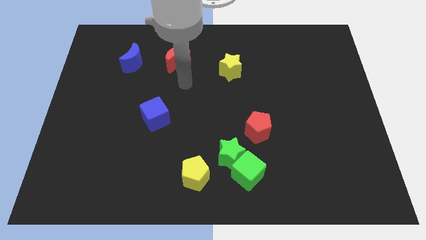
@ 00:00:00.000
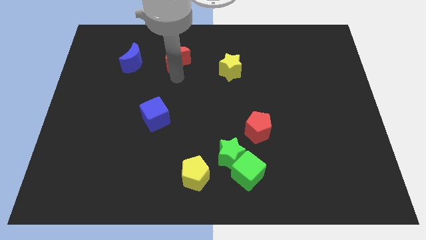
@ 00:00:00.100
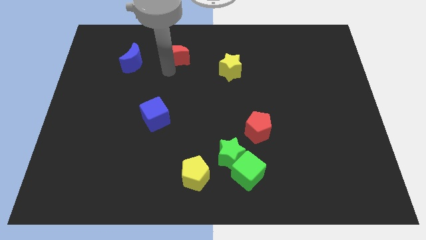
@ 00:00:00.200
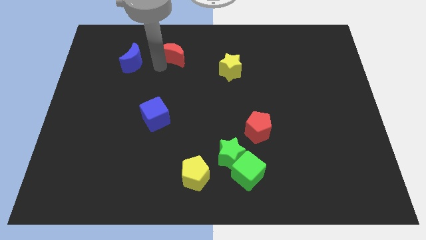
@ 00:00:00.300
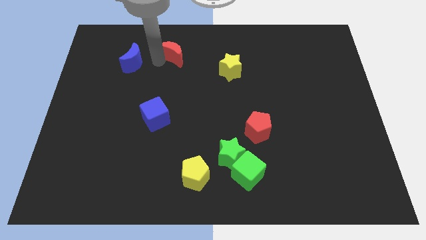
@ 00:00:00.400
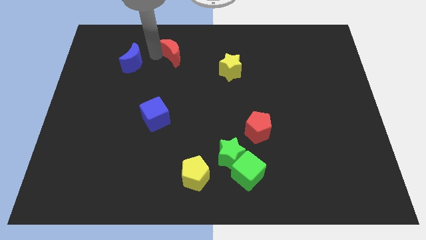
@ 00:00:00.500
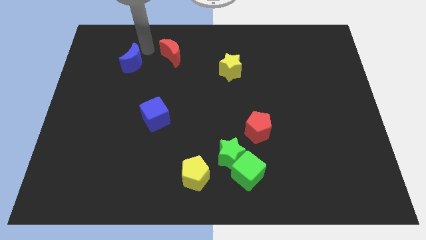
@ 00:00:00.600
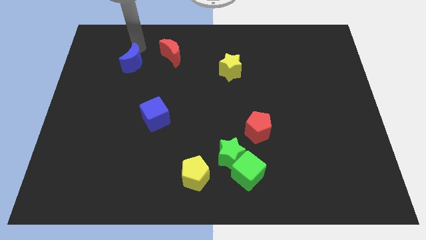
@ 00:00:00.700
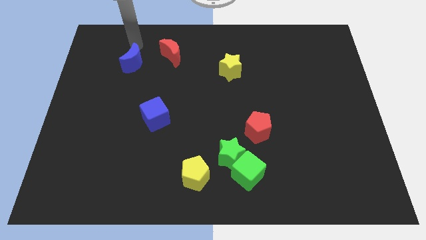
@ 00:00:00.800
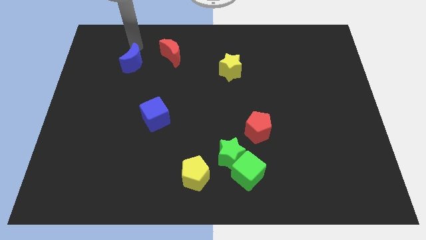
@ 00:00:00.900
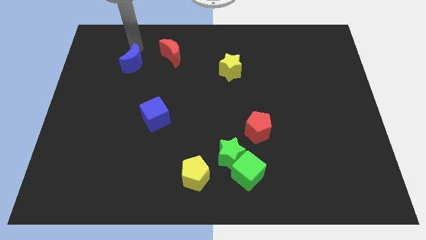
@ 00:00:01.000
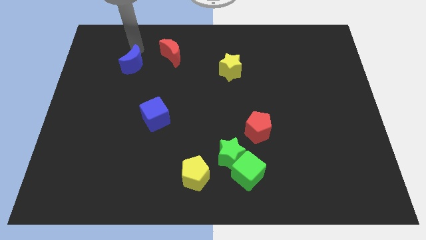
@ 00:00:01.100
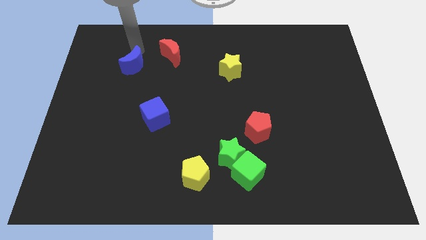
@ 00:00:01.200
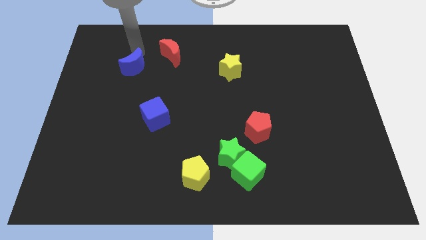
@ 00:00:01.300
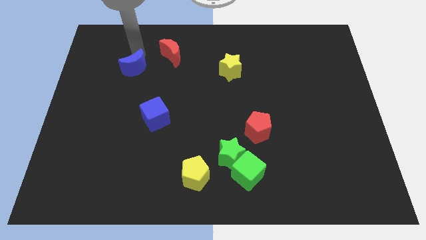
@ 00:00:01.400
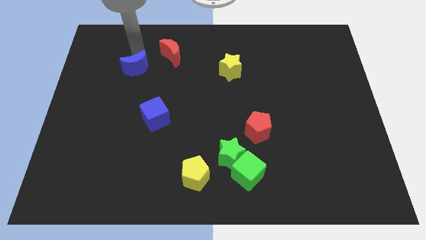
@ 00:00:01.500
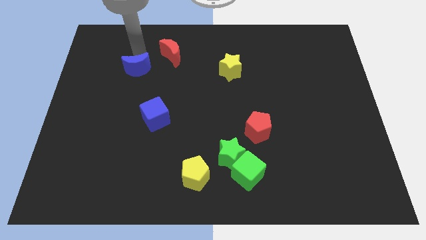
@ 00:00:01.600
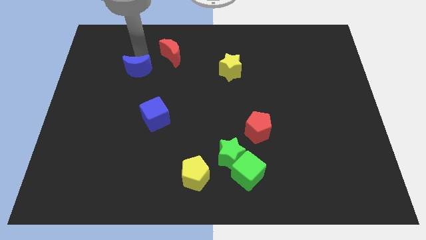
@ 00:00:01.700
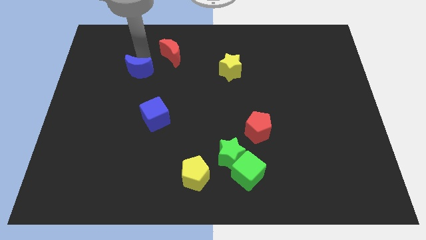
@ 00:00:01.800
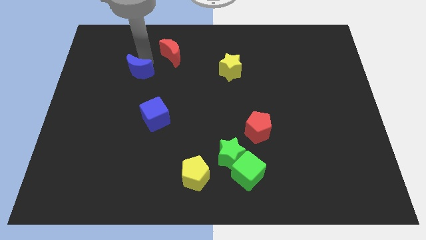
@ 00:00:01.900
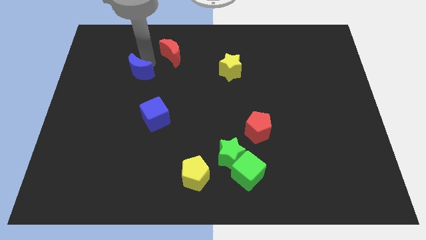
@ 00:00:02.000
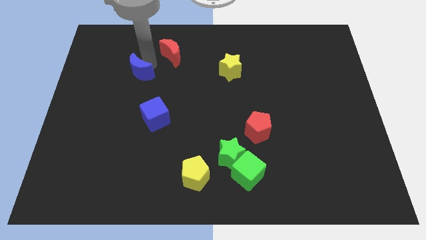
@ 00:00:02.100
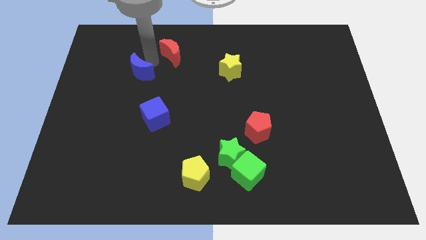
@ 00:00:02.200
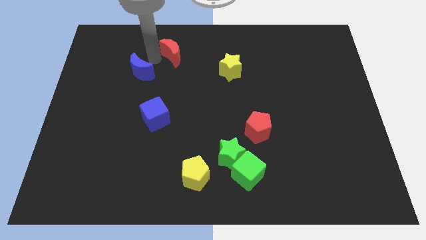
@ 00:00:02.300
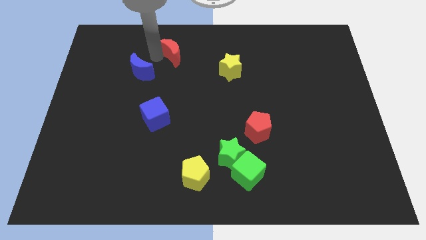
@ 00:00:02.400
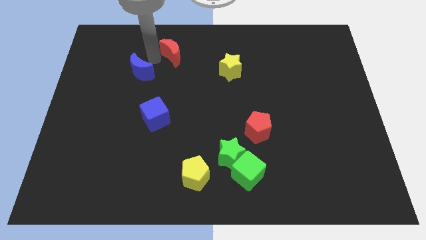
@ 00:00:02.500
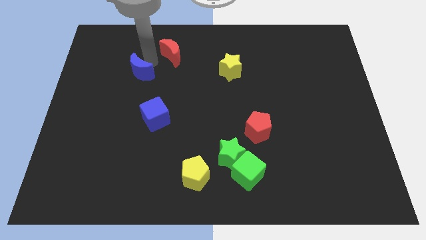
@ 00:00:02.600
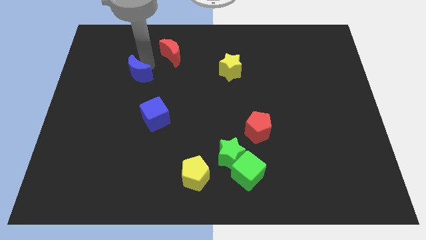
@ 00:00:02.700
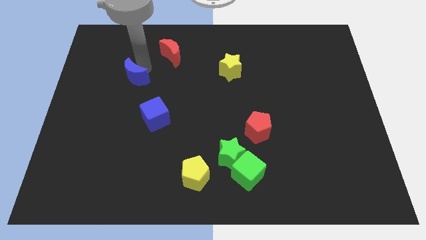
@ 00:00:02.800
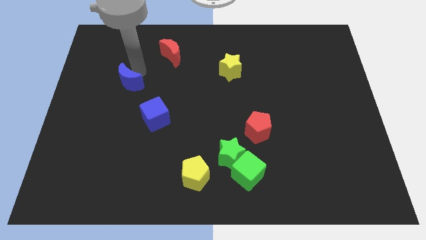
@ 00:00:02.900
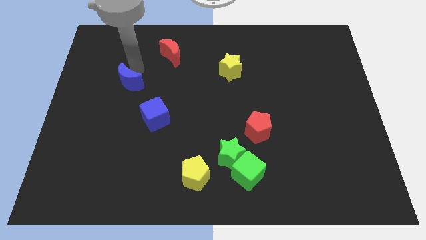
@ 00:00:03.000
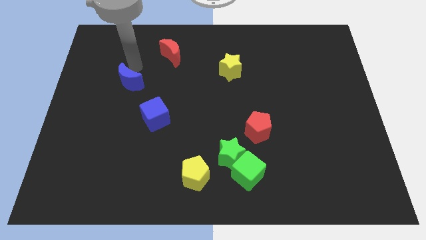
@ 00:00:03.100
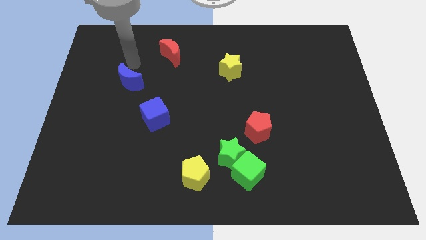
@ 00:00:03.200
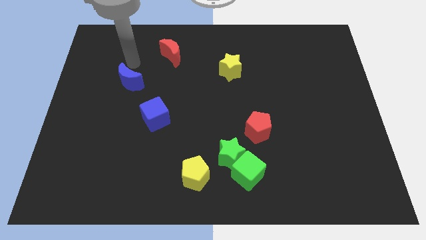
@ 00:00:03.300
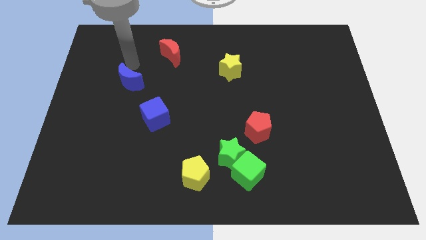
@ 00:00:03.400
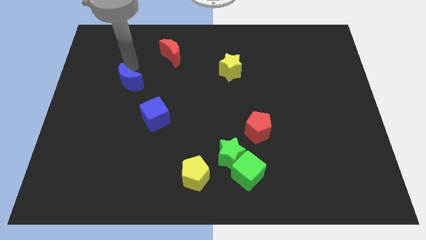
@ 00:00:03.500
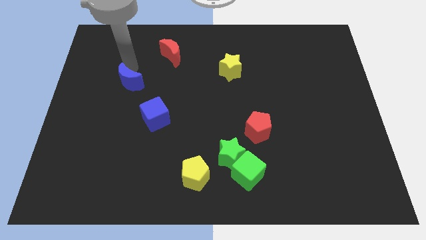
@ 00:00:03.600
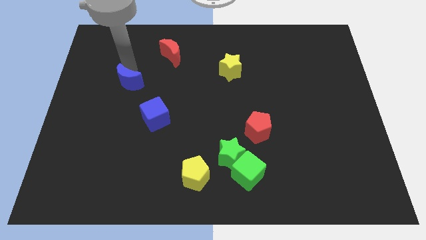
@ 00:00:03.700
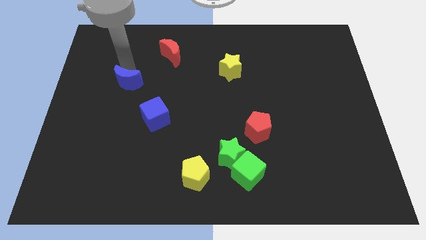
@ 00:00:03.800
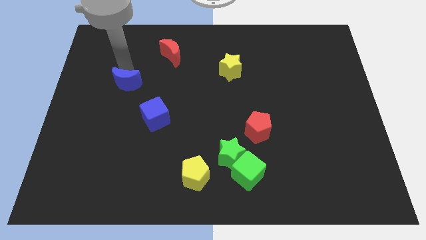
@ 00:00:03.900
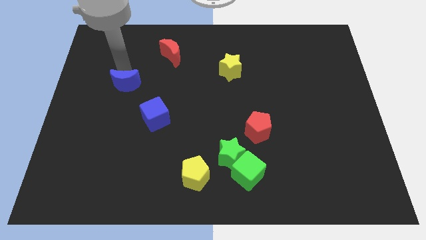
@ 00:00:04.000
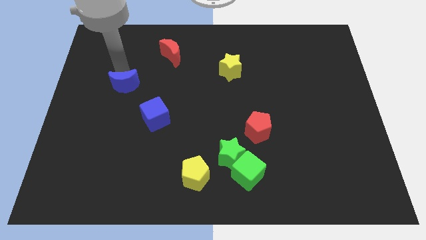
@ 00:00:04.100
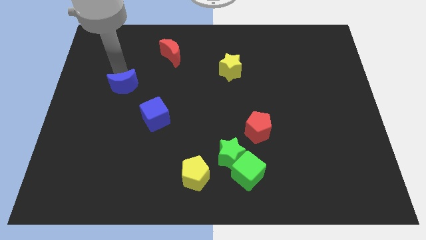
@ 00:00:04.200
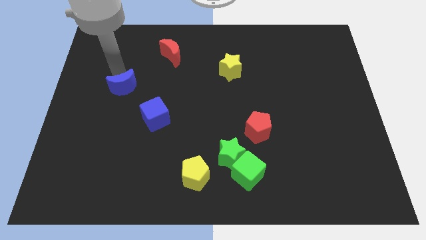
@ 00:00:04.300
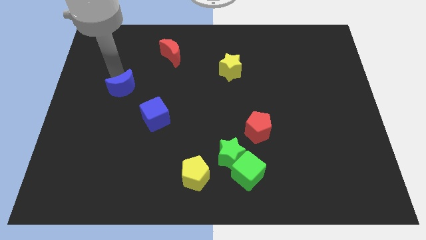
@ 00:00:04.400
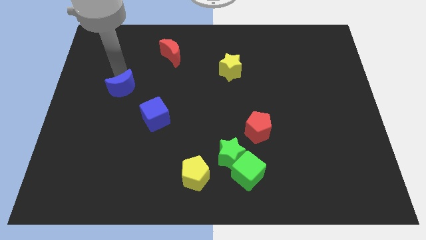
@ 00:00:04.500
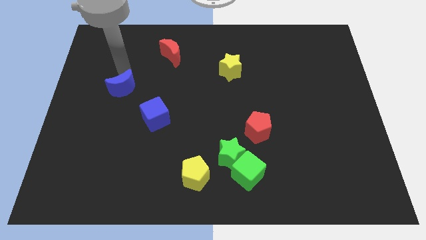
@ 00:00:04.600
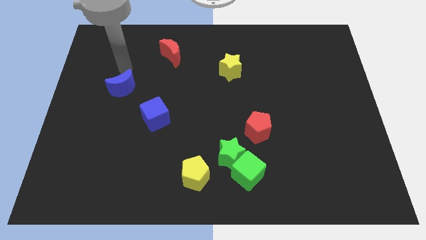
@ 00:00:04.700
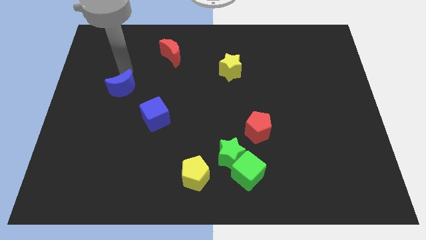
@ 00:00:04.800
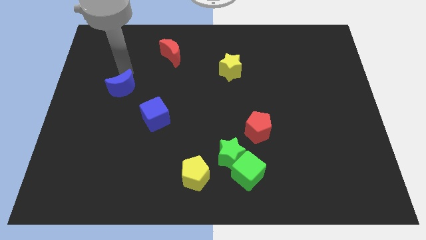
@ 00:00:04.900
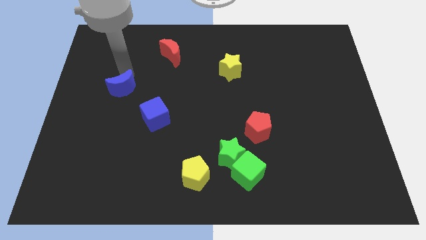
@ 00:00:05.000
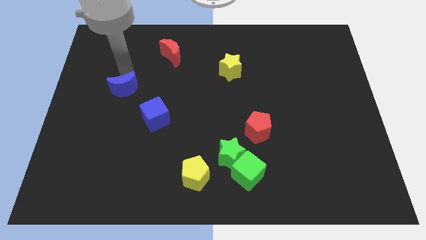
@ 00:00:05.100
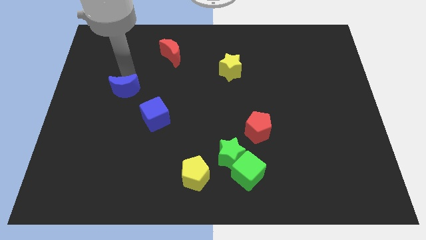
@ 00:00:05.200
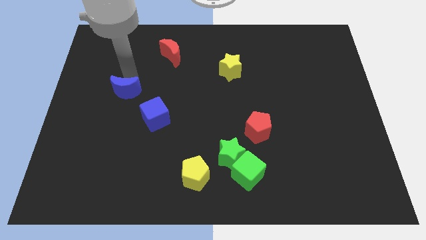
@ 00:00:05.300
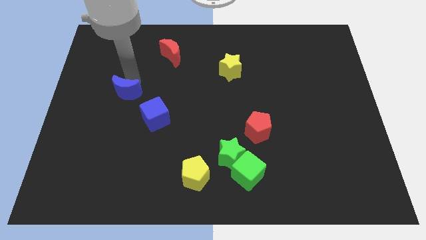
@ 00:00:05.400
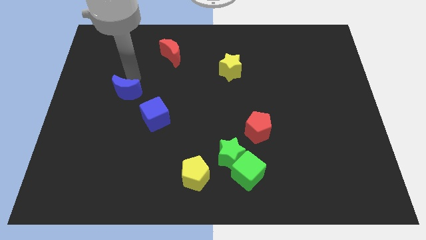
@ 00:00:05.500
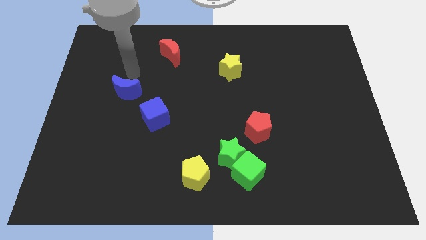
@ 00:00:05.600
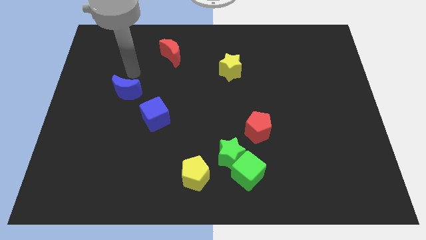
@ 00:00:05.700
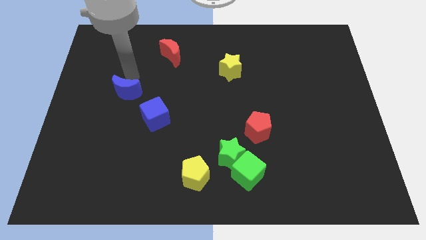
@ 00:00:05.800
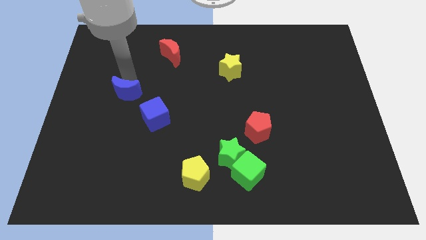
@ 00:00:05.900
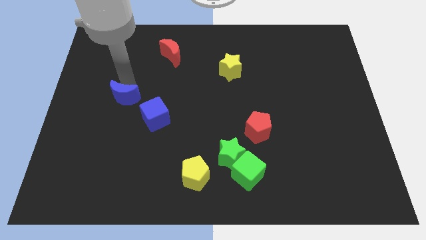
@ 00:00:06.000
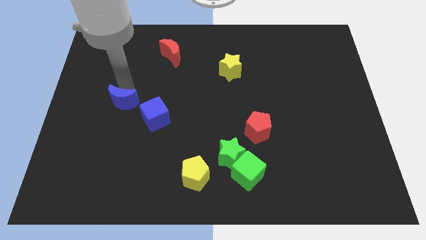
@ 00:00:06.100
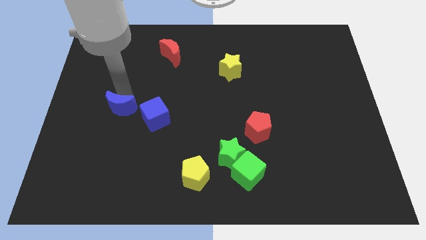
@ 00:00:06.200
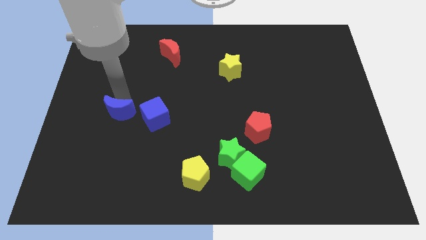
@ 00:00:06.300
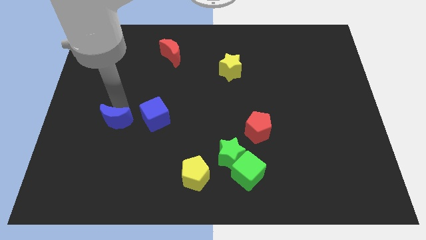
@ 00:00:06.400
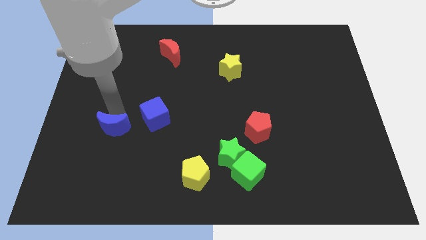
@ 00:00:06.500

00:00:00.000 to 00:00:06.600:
push the blue moon down

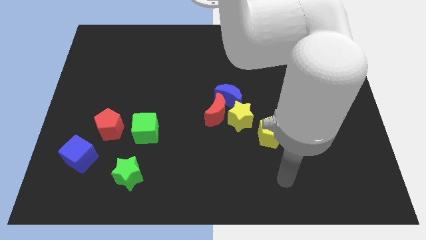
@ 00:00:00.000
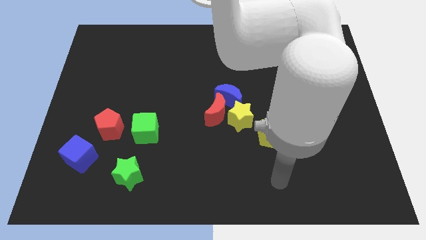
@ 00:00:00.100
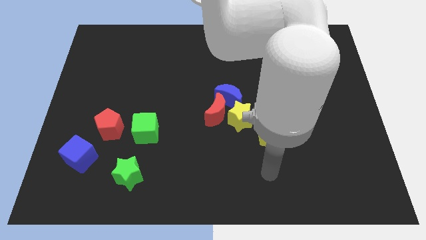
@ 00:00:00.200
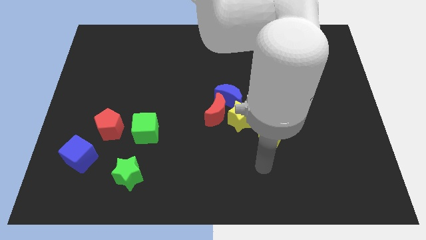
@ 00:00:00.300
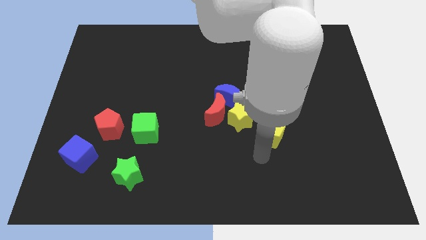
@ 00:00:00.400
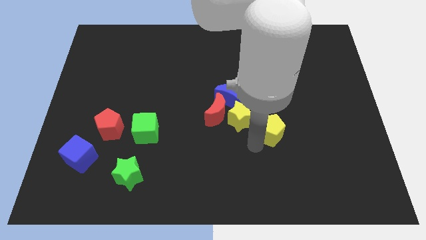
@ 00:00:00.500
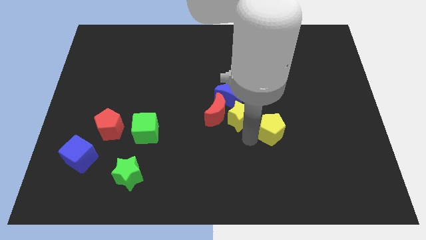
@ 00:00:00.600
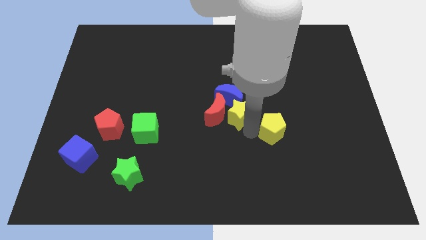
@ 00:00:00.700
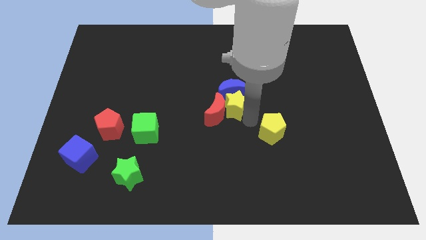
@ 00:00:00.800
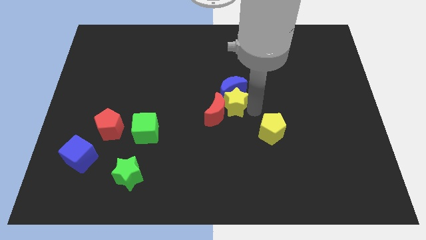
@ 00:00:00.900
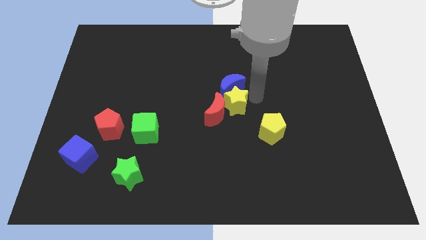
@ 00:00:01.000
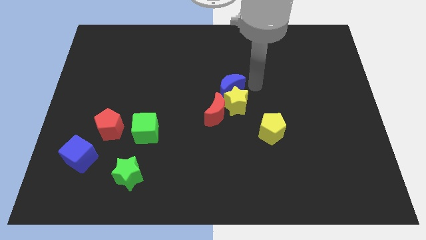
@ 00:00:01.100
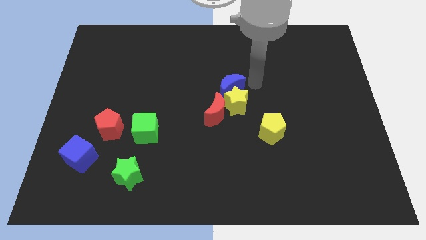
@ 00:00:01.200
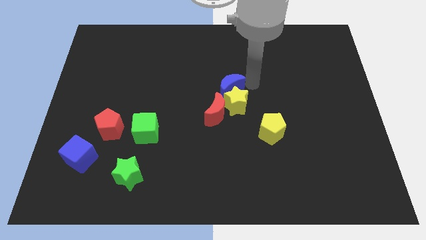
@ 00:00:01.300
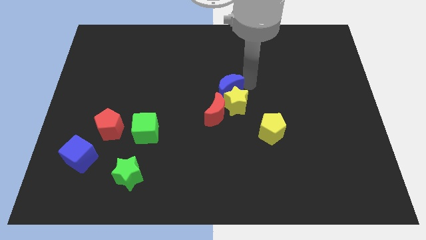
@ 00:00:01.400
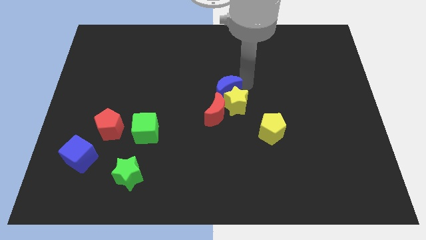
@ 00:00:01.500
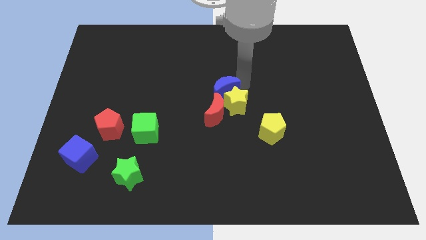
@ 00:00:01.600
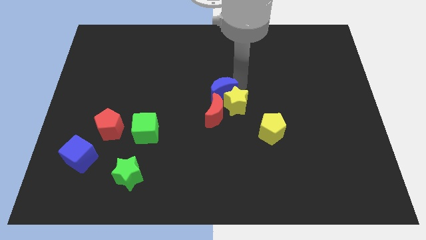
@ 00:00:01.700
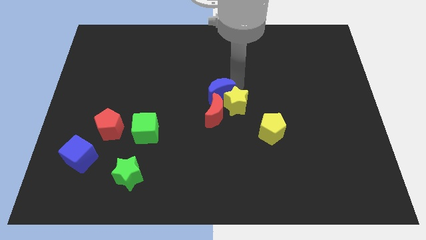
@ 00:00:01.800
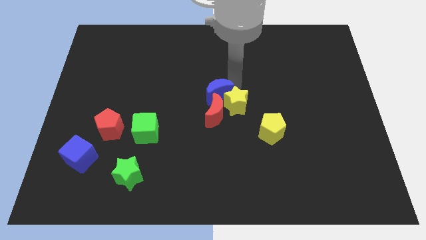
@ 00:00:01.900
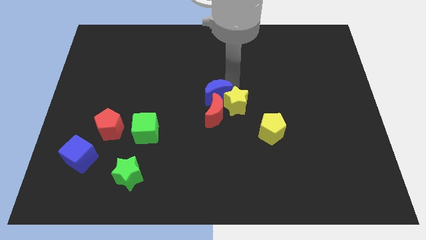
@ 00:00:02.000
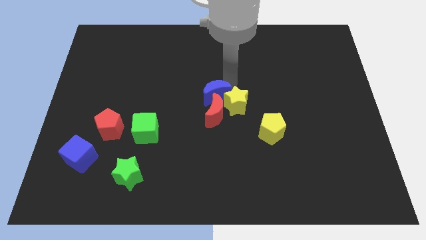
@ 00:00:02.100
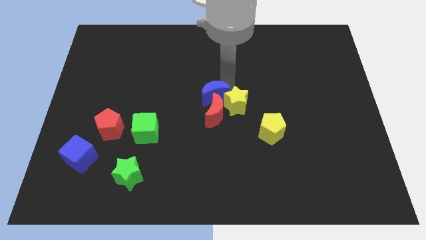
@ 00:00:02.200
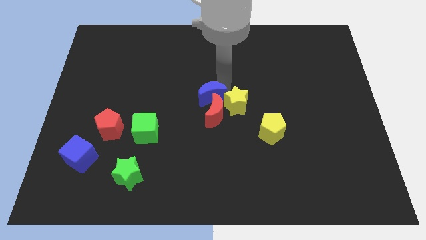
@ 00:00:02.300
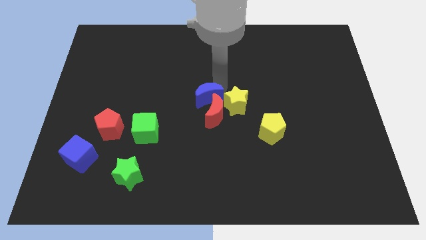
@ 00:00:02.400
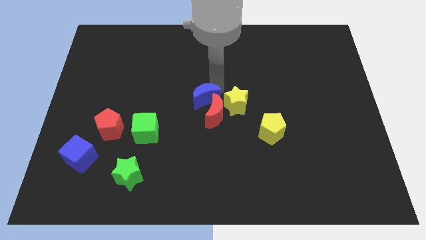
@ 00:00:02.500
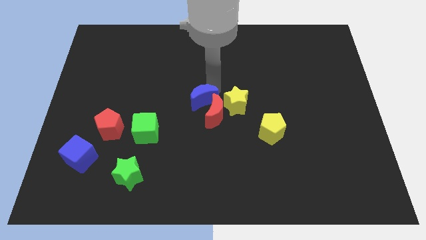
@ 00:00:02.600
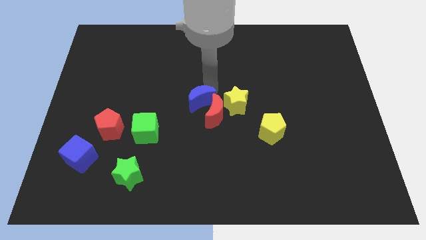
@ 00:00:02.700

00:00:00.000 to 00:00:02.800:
move the blue moon to the left somewhat
